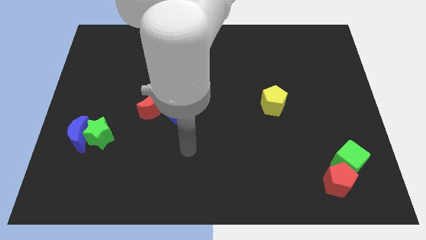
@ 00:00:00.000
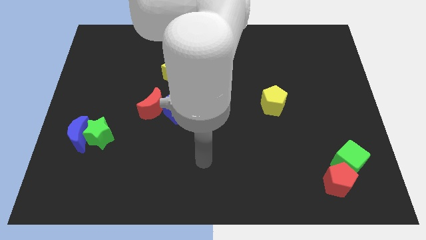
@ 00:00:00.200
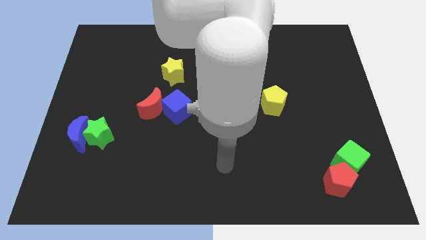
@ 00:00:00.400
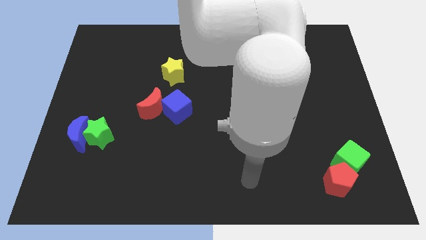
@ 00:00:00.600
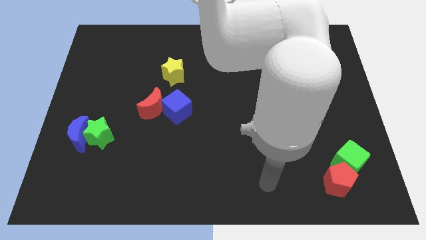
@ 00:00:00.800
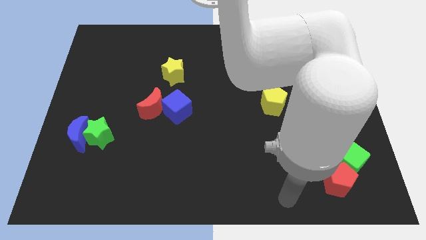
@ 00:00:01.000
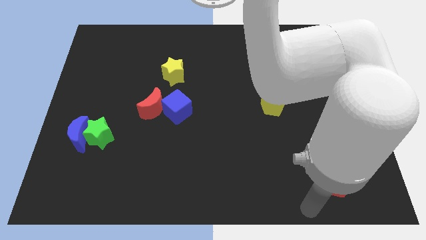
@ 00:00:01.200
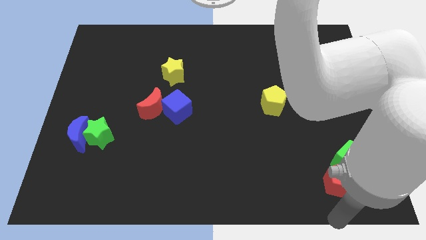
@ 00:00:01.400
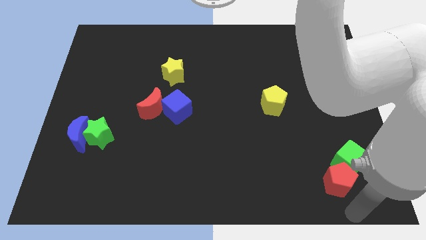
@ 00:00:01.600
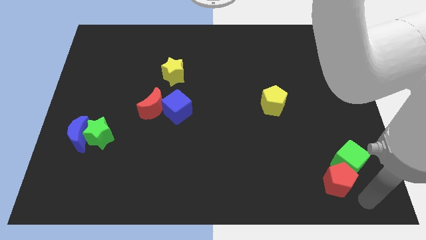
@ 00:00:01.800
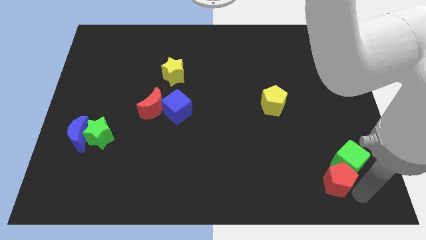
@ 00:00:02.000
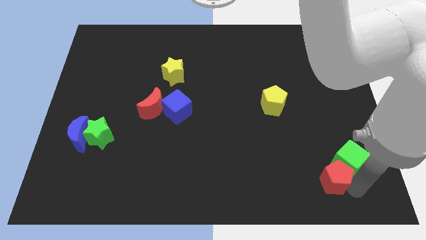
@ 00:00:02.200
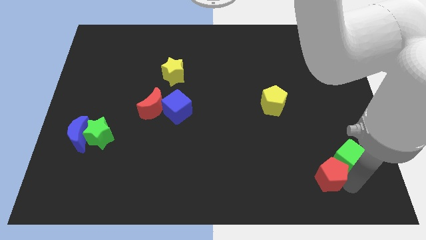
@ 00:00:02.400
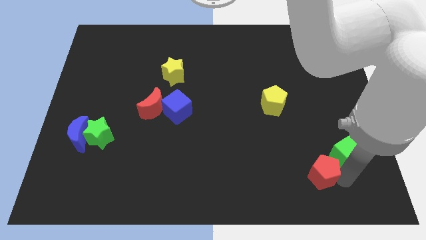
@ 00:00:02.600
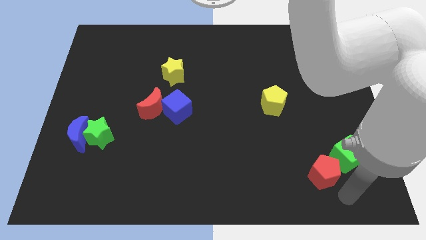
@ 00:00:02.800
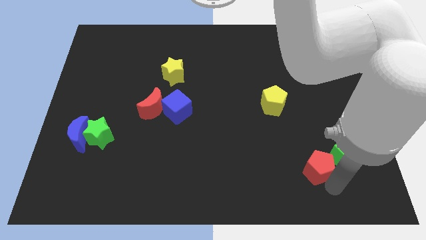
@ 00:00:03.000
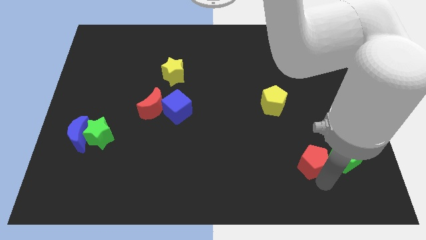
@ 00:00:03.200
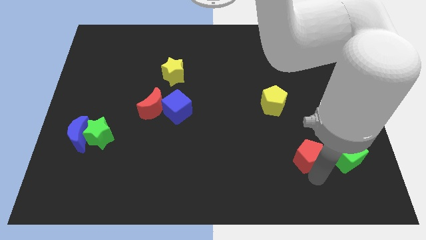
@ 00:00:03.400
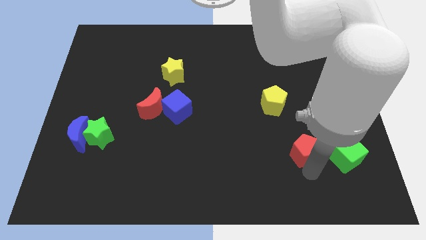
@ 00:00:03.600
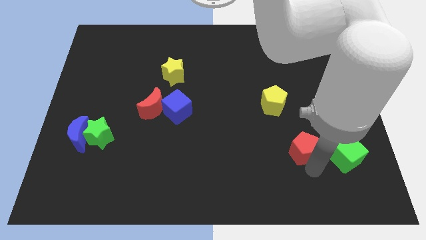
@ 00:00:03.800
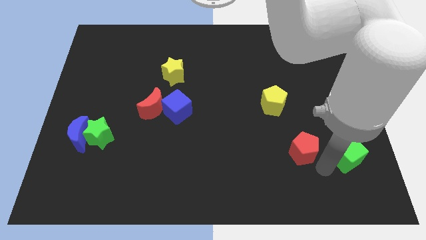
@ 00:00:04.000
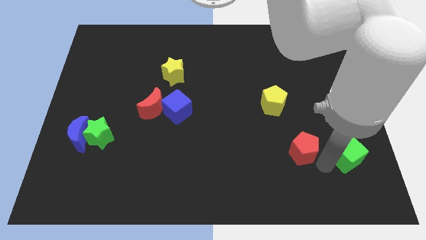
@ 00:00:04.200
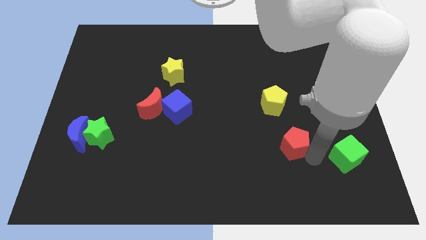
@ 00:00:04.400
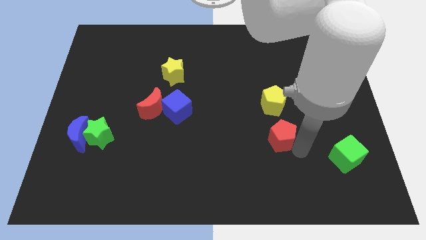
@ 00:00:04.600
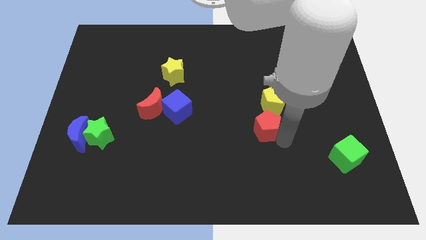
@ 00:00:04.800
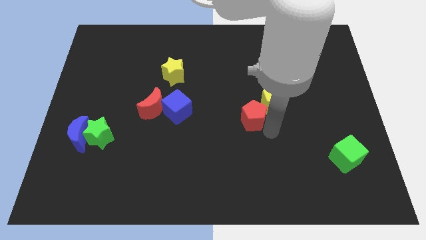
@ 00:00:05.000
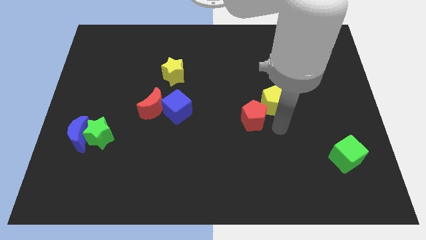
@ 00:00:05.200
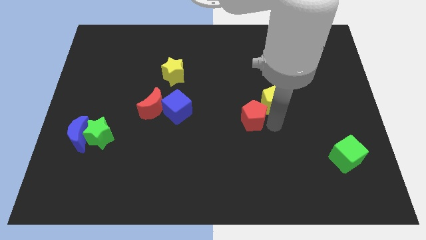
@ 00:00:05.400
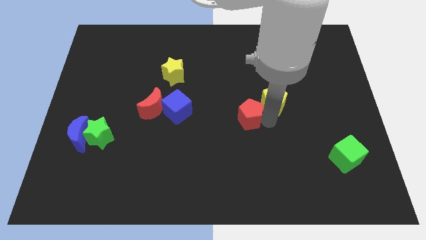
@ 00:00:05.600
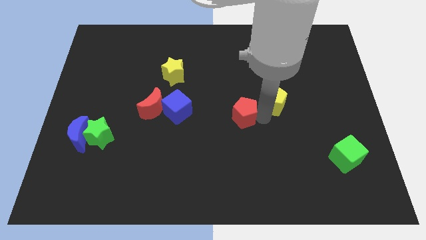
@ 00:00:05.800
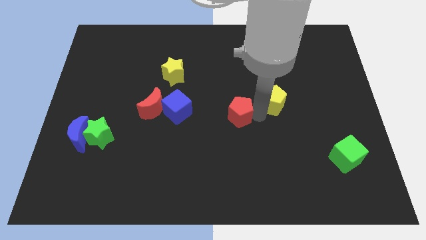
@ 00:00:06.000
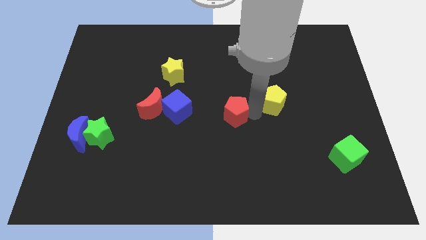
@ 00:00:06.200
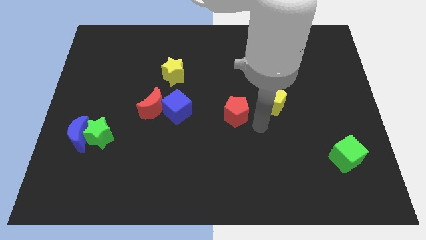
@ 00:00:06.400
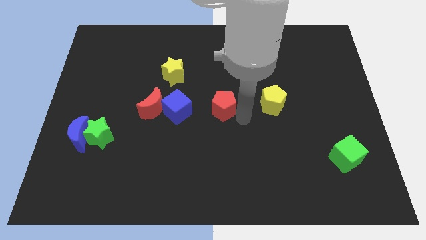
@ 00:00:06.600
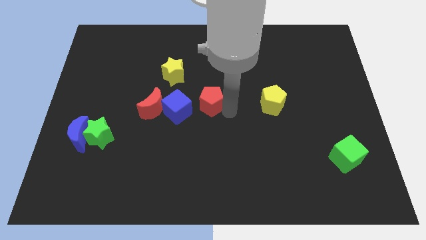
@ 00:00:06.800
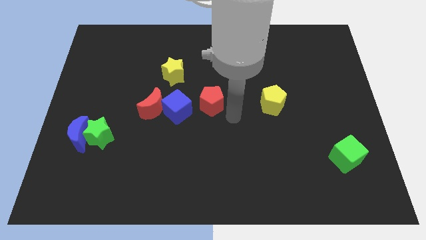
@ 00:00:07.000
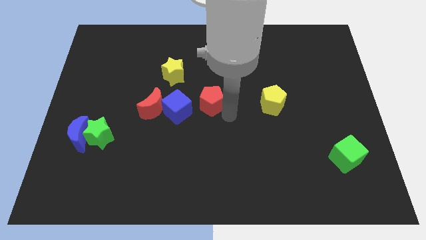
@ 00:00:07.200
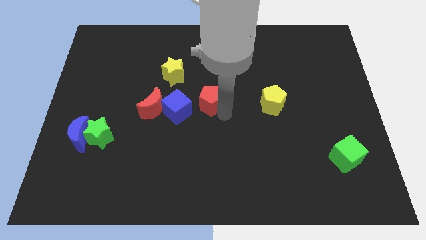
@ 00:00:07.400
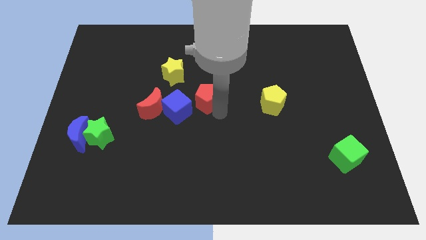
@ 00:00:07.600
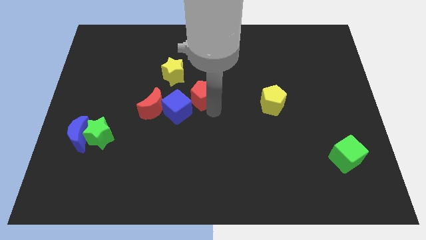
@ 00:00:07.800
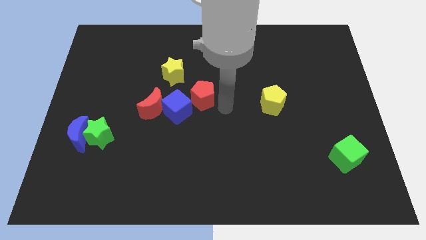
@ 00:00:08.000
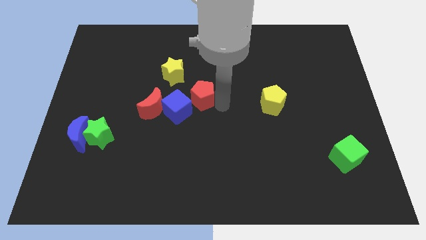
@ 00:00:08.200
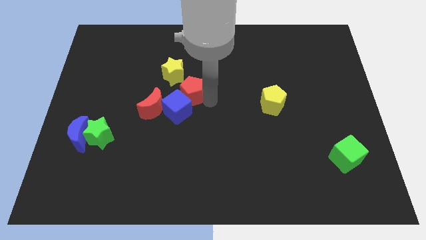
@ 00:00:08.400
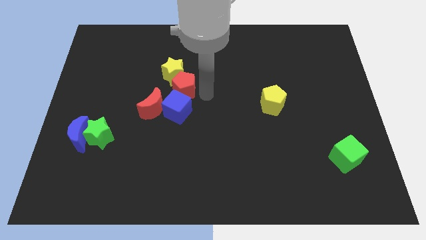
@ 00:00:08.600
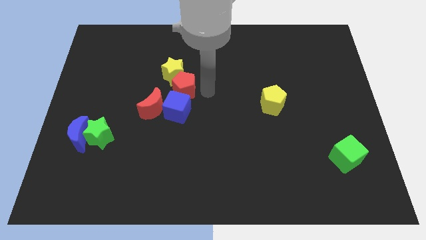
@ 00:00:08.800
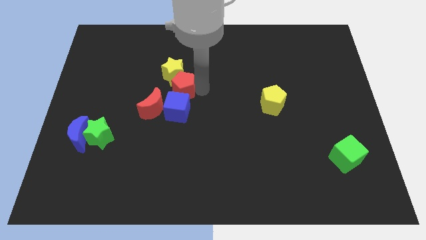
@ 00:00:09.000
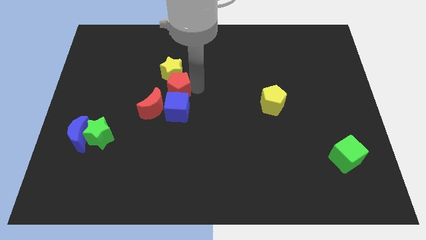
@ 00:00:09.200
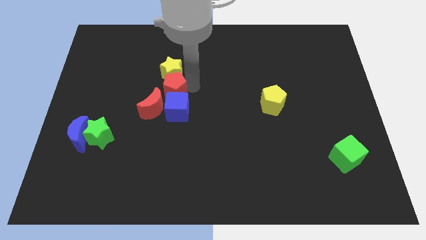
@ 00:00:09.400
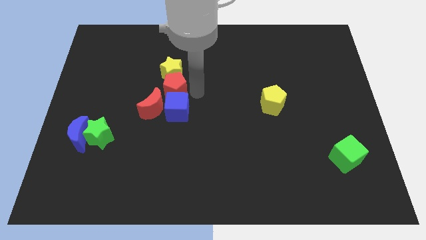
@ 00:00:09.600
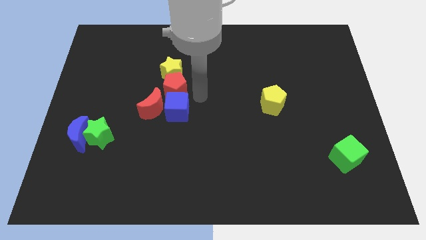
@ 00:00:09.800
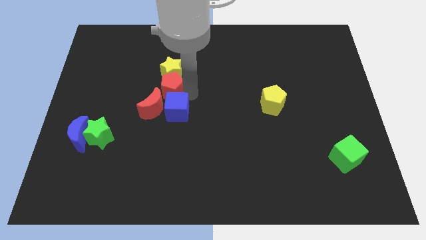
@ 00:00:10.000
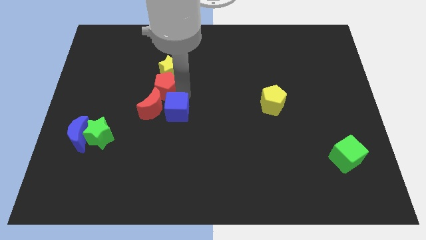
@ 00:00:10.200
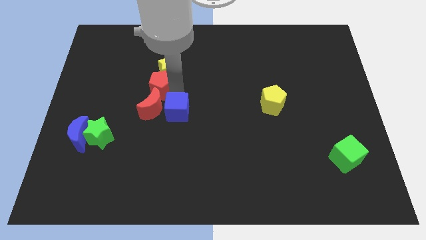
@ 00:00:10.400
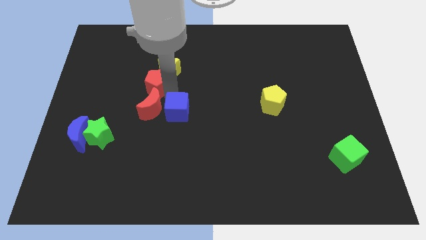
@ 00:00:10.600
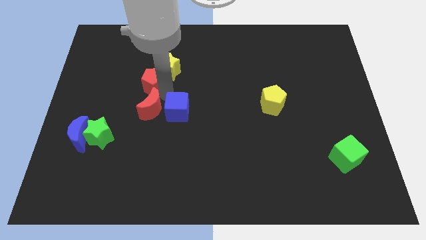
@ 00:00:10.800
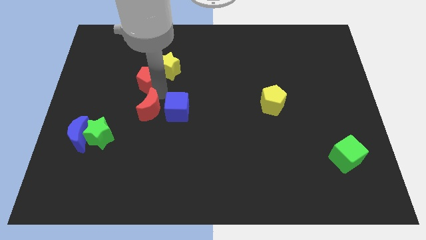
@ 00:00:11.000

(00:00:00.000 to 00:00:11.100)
move the red pentagon left of the yellow star

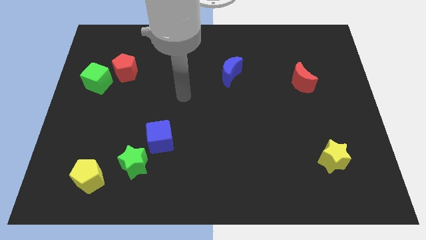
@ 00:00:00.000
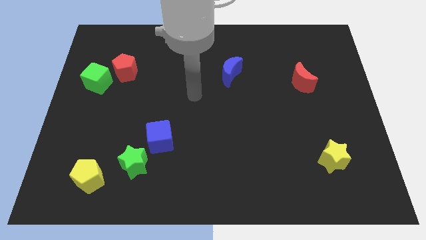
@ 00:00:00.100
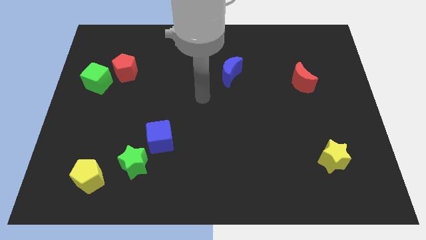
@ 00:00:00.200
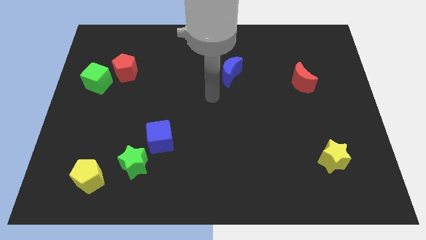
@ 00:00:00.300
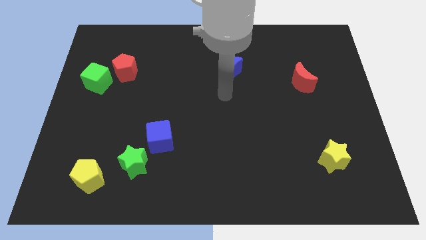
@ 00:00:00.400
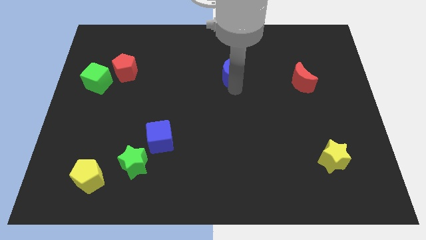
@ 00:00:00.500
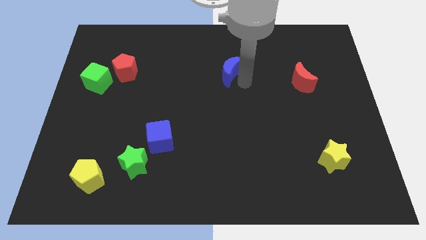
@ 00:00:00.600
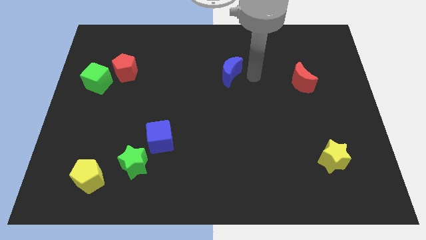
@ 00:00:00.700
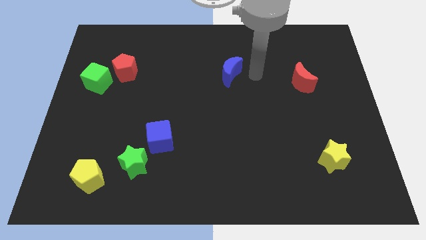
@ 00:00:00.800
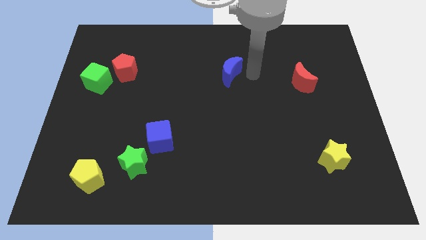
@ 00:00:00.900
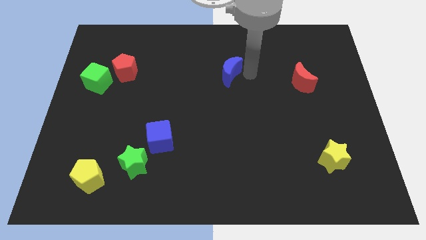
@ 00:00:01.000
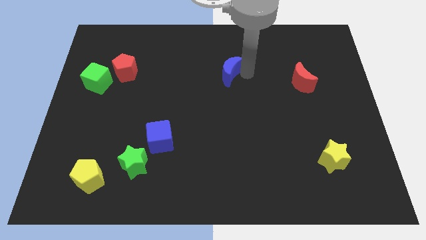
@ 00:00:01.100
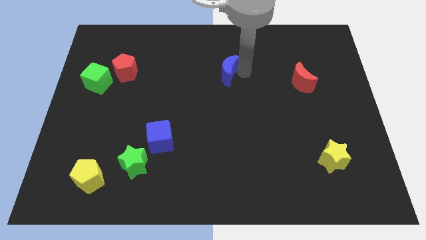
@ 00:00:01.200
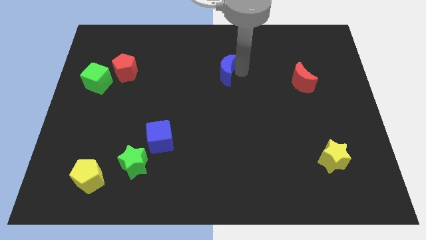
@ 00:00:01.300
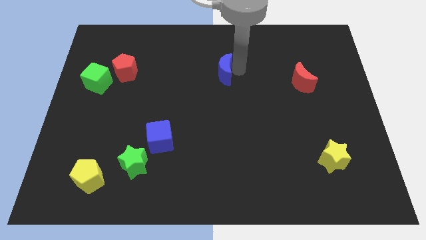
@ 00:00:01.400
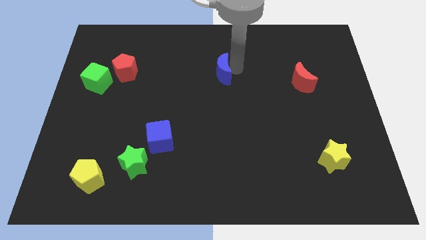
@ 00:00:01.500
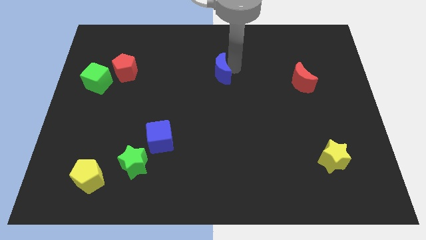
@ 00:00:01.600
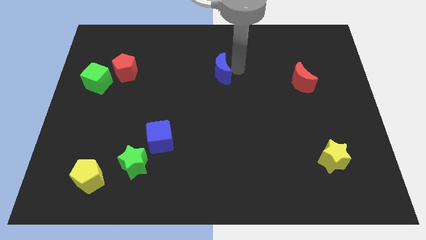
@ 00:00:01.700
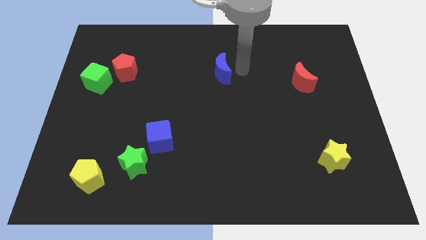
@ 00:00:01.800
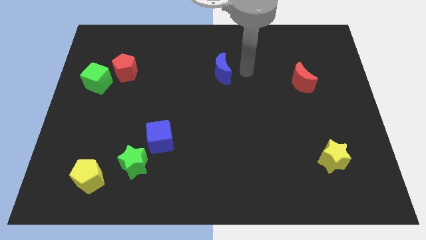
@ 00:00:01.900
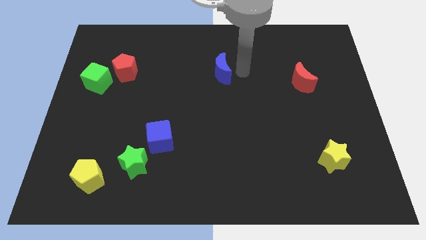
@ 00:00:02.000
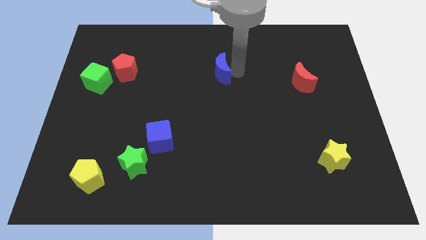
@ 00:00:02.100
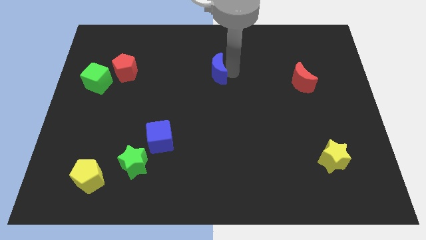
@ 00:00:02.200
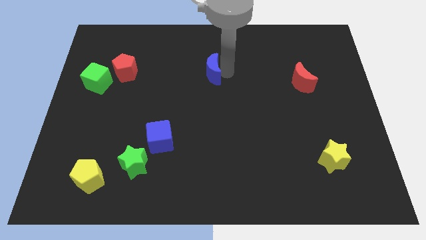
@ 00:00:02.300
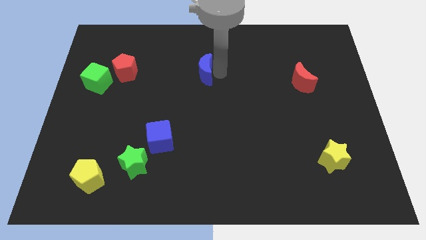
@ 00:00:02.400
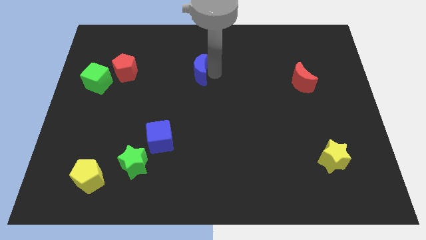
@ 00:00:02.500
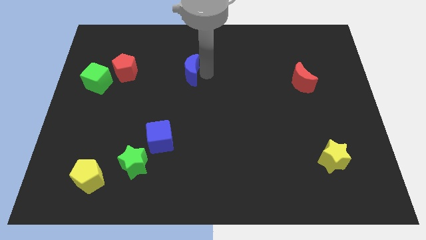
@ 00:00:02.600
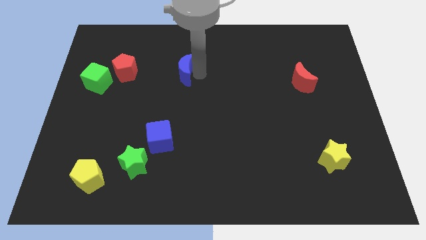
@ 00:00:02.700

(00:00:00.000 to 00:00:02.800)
move the blue moon just right of the red pentagon
